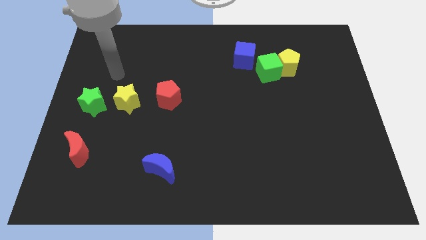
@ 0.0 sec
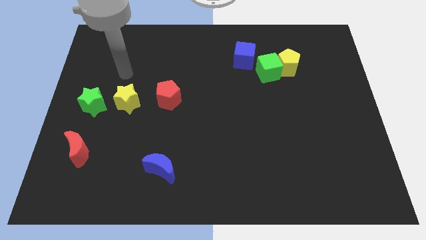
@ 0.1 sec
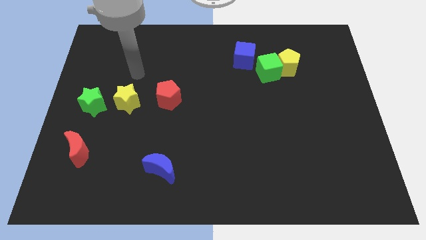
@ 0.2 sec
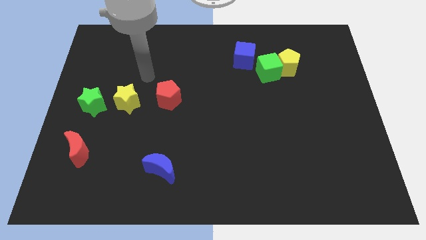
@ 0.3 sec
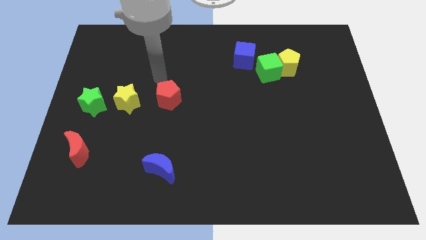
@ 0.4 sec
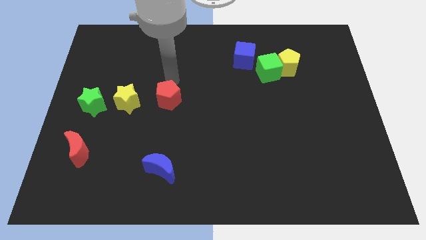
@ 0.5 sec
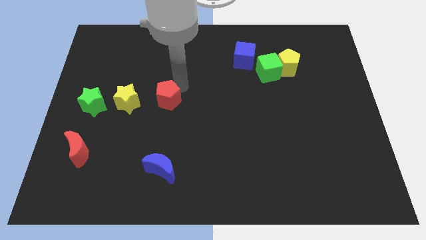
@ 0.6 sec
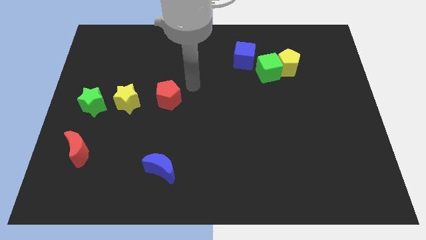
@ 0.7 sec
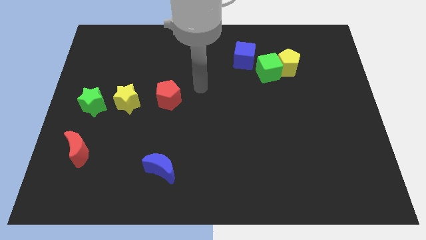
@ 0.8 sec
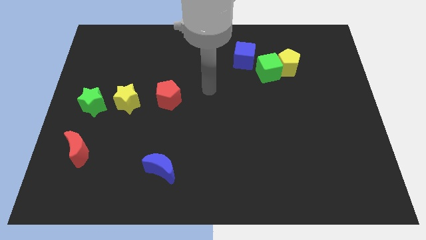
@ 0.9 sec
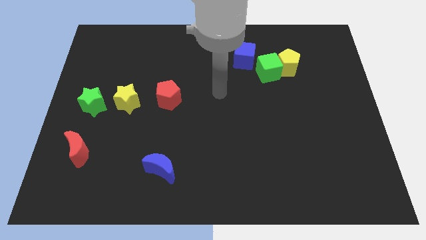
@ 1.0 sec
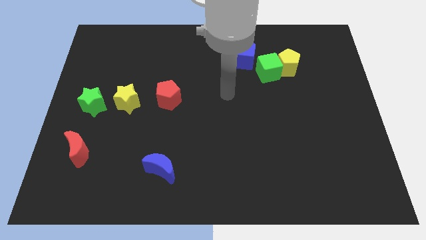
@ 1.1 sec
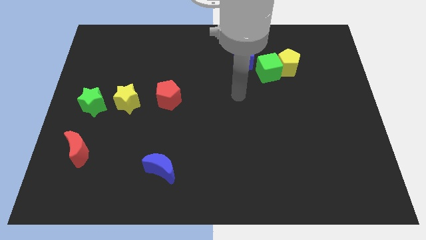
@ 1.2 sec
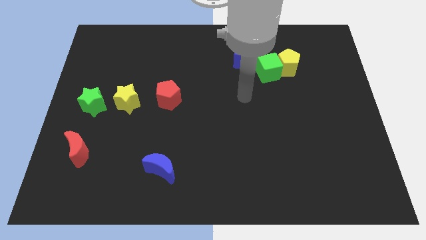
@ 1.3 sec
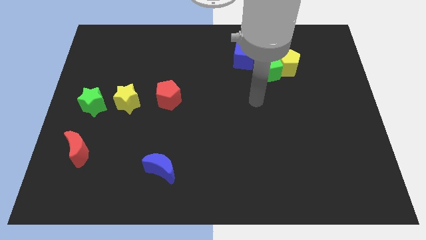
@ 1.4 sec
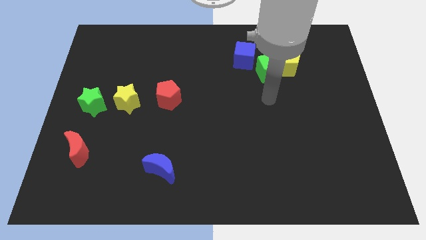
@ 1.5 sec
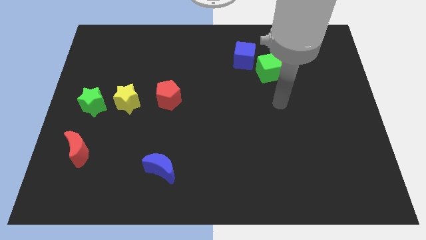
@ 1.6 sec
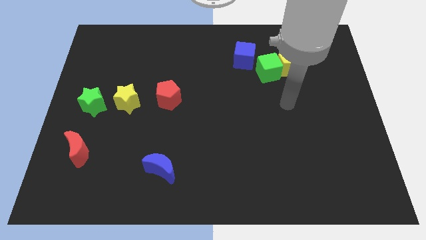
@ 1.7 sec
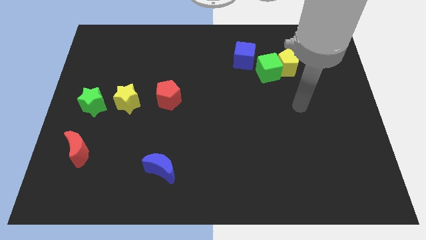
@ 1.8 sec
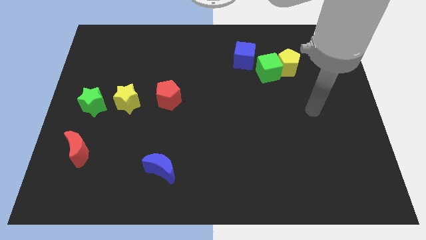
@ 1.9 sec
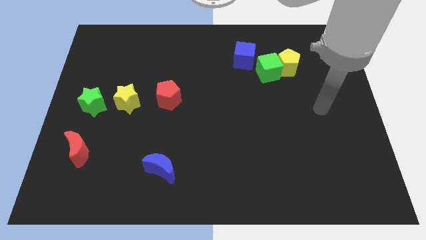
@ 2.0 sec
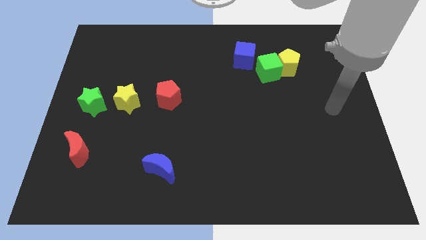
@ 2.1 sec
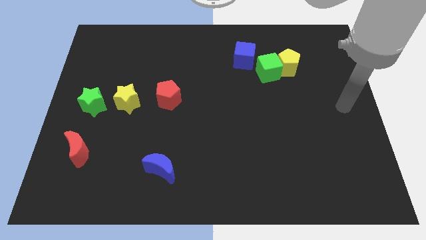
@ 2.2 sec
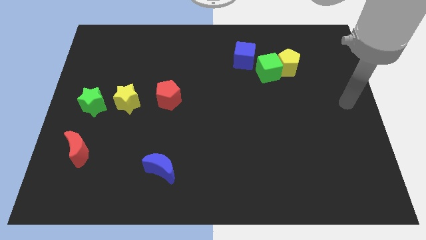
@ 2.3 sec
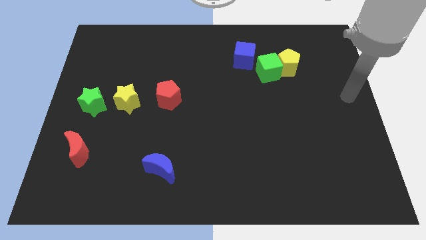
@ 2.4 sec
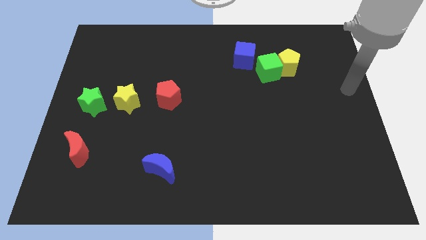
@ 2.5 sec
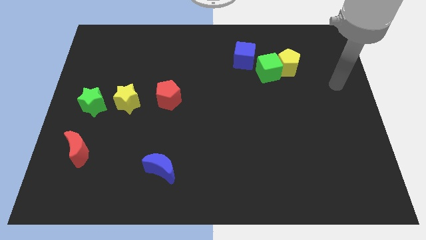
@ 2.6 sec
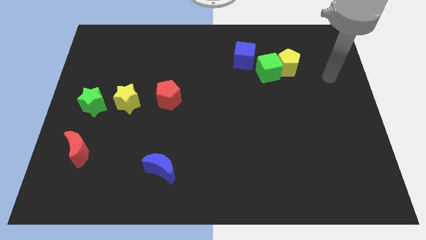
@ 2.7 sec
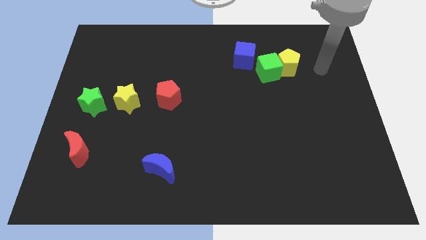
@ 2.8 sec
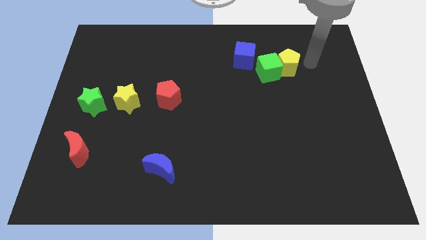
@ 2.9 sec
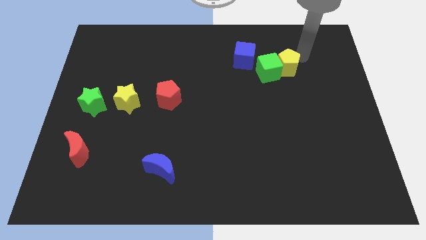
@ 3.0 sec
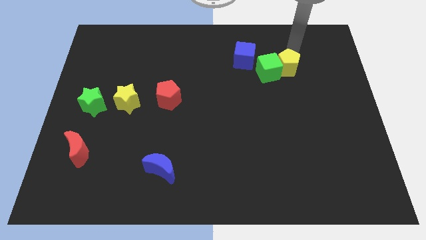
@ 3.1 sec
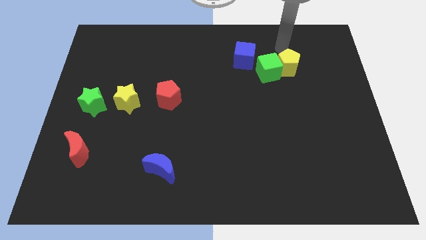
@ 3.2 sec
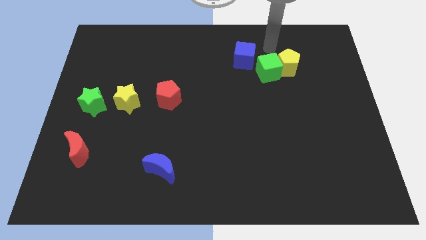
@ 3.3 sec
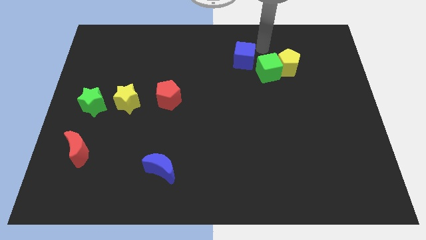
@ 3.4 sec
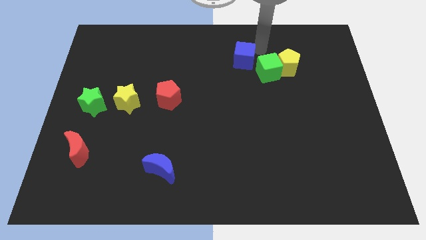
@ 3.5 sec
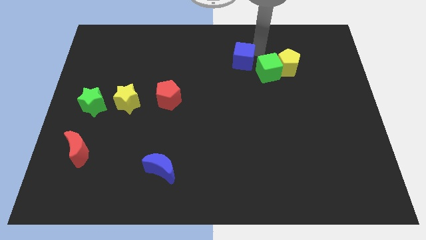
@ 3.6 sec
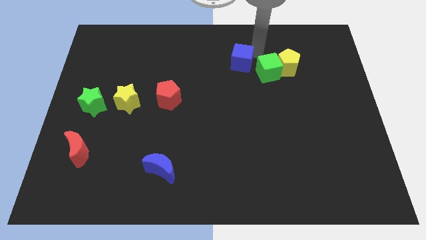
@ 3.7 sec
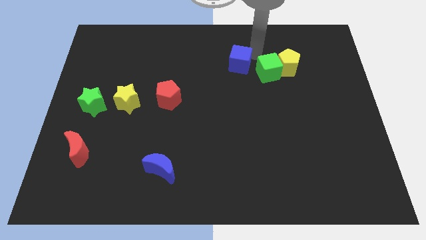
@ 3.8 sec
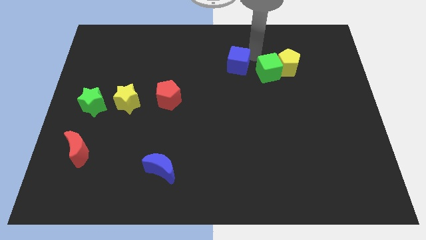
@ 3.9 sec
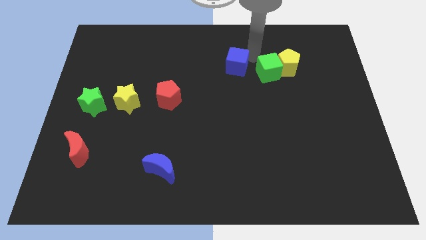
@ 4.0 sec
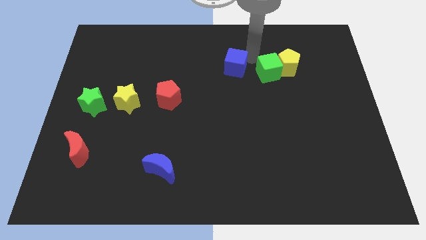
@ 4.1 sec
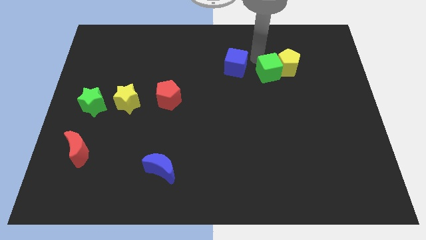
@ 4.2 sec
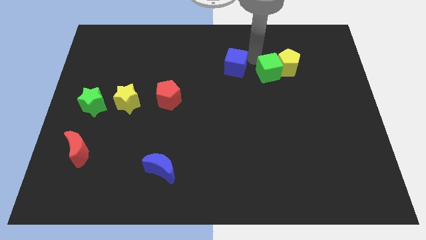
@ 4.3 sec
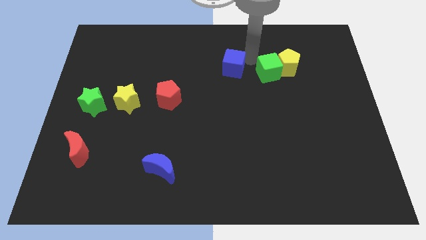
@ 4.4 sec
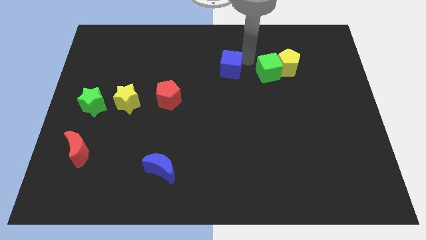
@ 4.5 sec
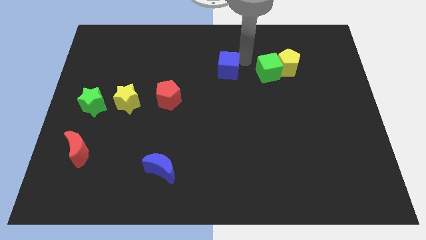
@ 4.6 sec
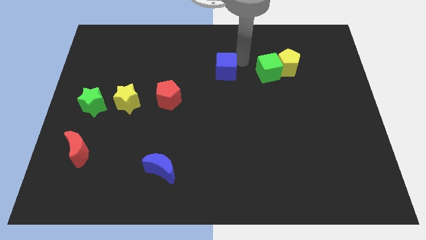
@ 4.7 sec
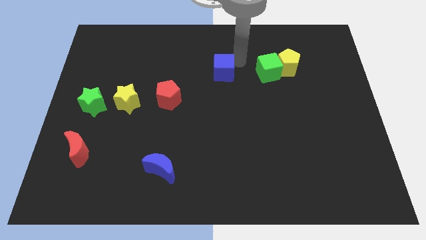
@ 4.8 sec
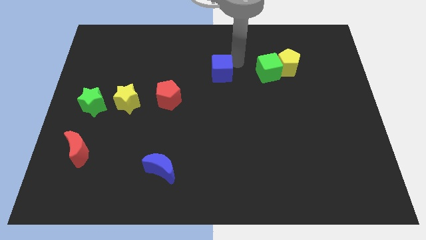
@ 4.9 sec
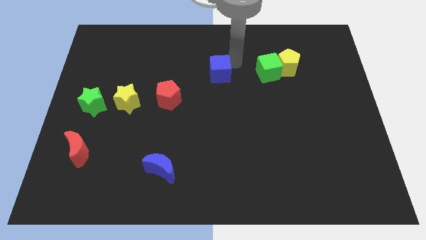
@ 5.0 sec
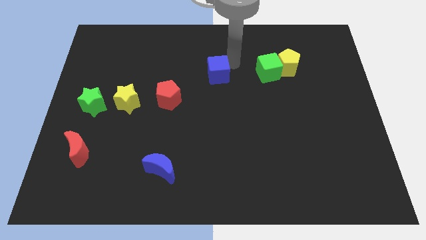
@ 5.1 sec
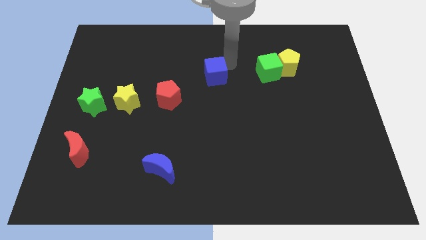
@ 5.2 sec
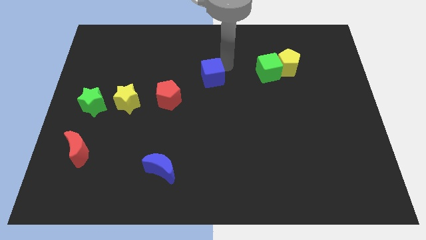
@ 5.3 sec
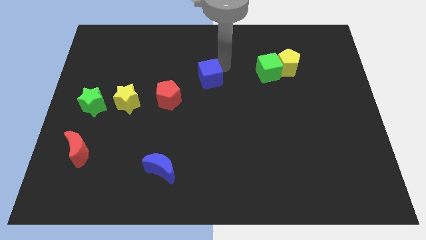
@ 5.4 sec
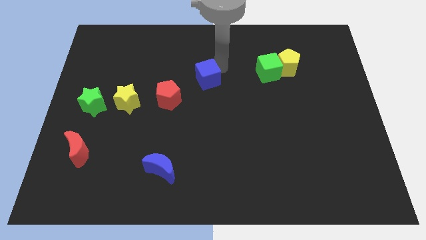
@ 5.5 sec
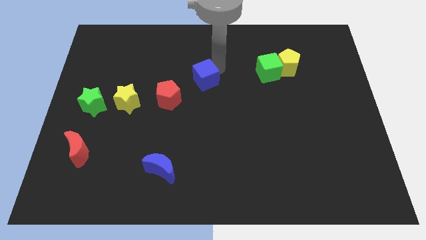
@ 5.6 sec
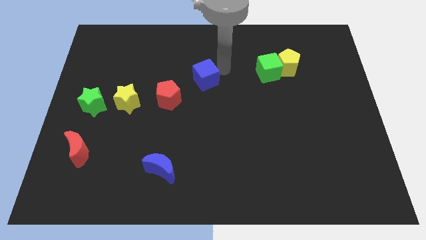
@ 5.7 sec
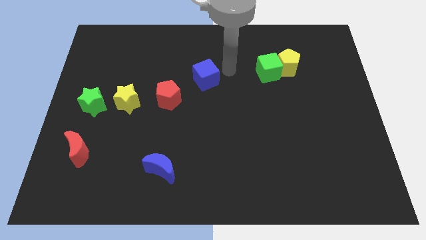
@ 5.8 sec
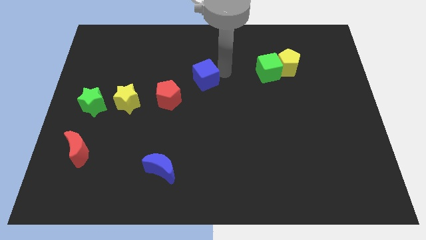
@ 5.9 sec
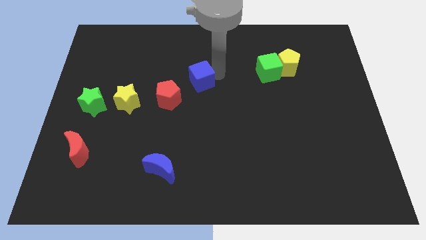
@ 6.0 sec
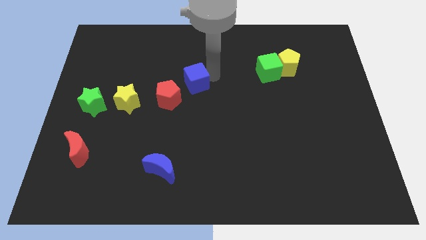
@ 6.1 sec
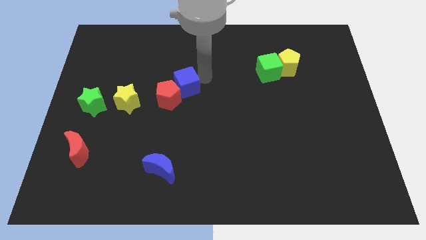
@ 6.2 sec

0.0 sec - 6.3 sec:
push the blue cube close to the red pentagon
